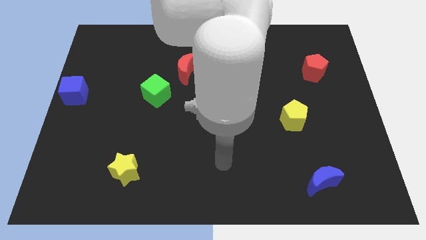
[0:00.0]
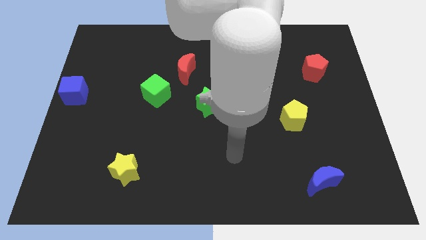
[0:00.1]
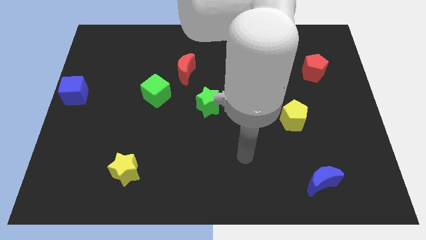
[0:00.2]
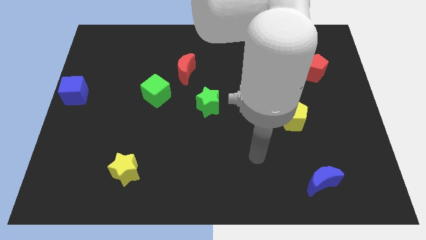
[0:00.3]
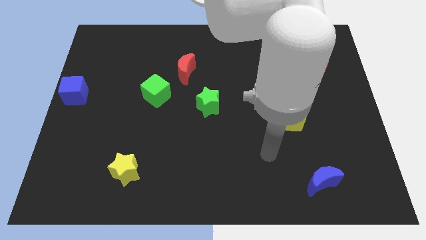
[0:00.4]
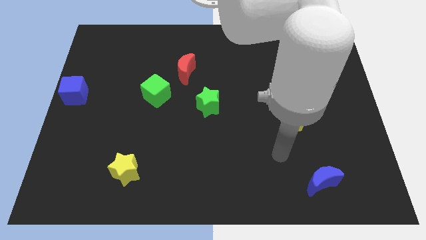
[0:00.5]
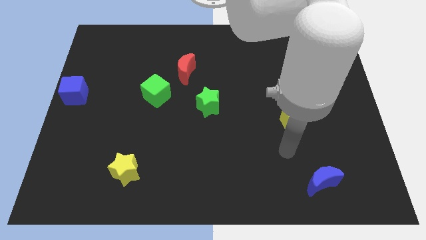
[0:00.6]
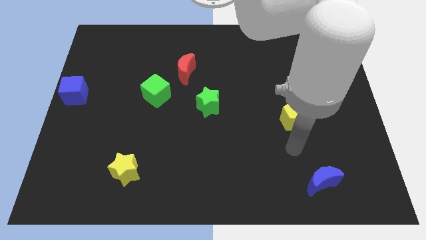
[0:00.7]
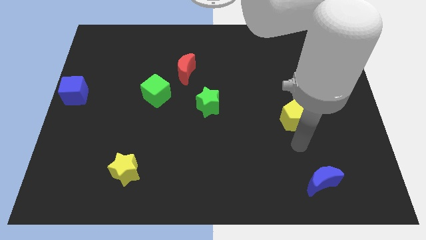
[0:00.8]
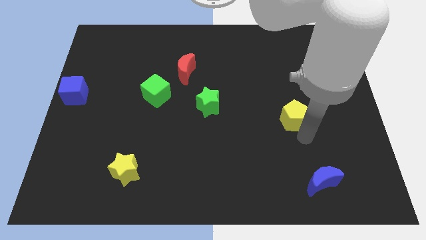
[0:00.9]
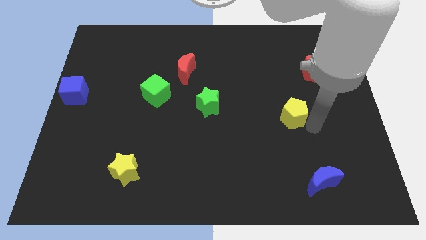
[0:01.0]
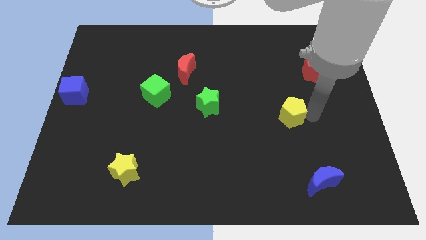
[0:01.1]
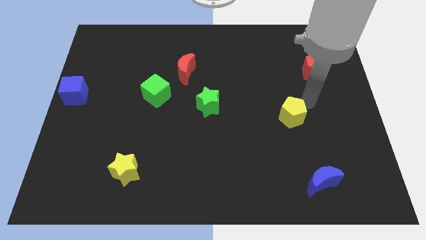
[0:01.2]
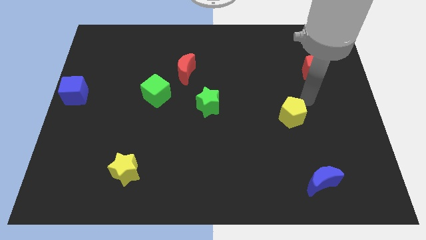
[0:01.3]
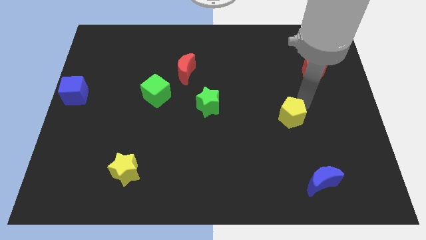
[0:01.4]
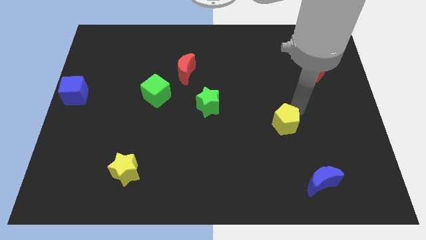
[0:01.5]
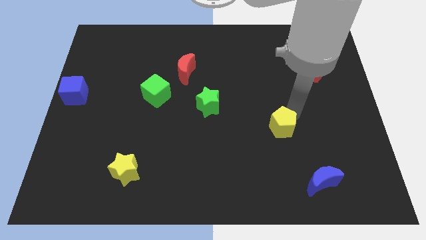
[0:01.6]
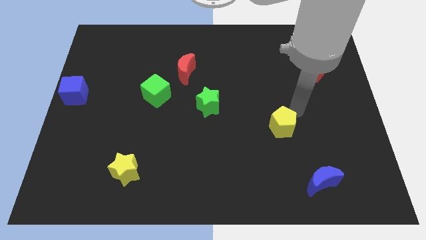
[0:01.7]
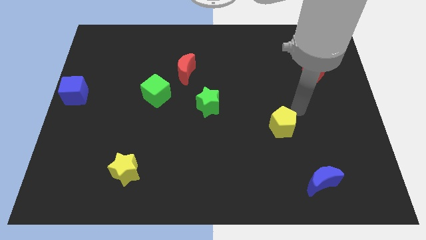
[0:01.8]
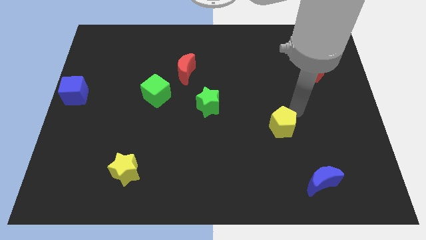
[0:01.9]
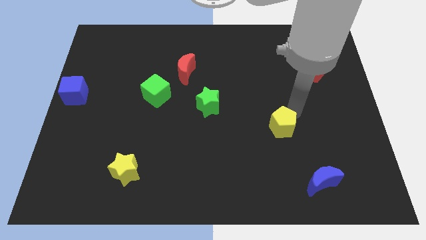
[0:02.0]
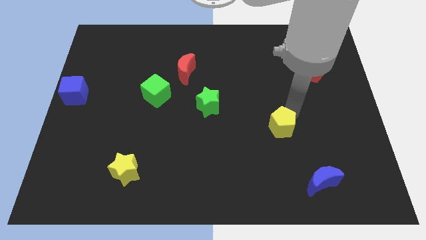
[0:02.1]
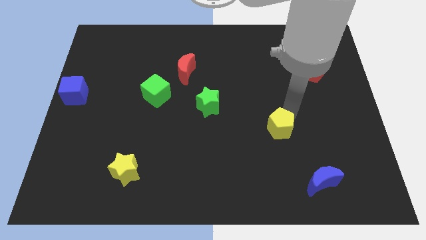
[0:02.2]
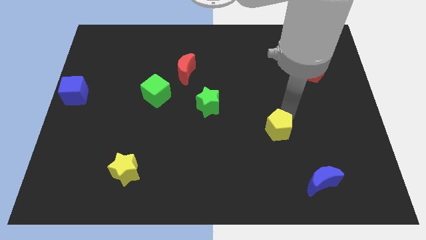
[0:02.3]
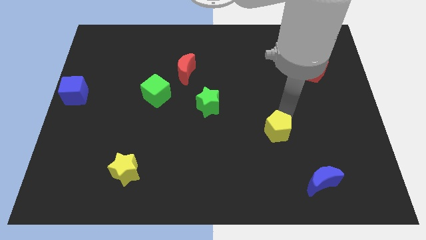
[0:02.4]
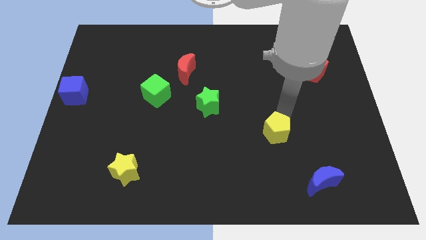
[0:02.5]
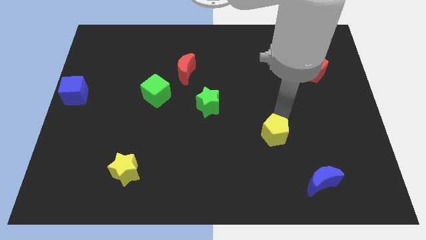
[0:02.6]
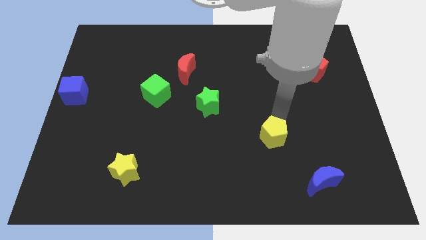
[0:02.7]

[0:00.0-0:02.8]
slightly push the yellow pentagon down and left diagonally

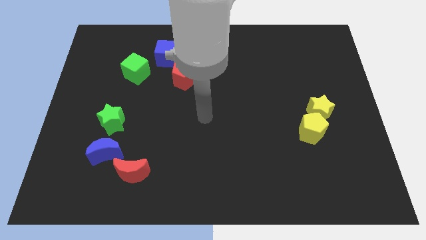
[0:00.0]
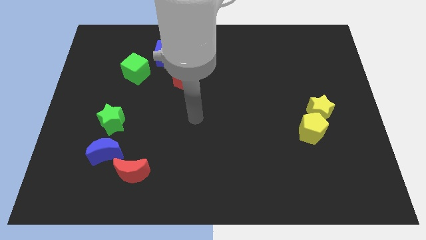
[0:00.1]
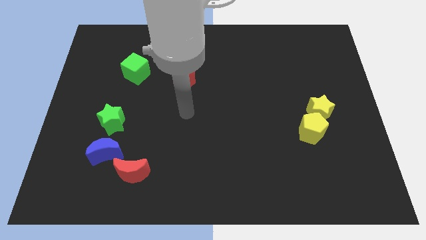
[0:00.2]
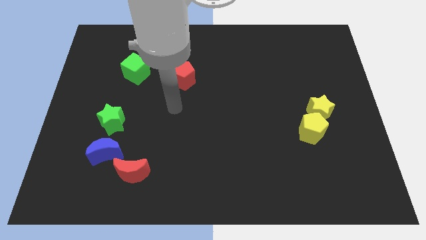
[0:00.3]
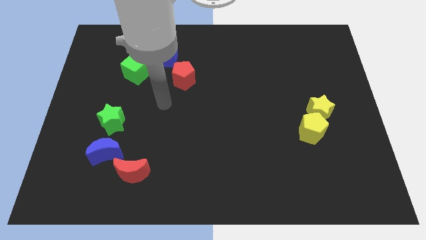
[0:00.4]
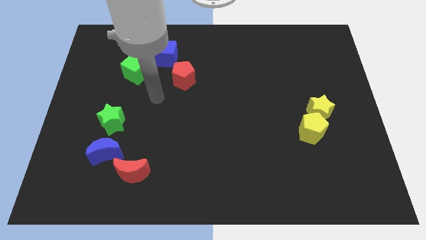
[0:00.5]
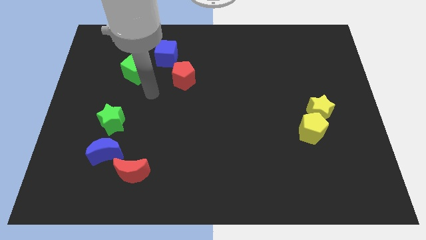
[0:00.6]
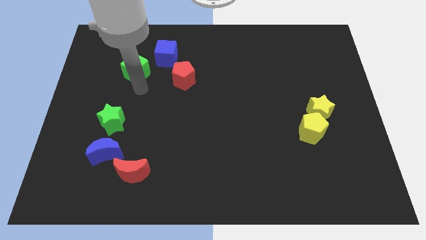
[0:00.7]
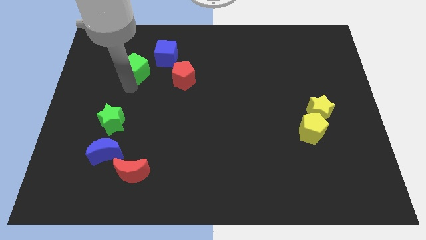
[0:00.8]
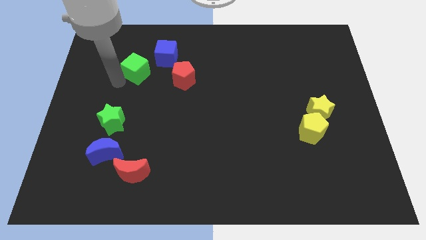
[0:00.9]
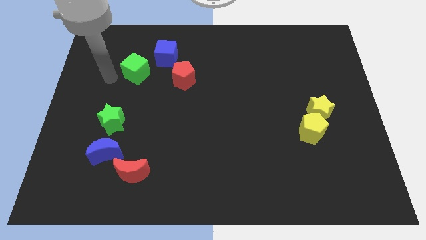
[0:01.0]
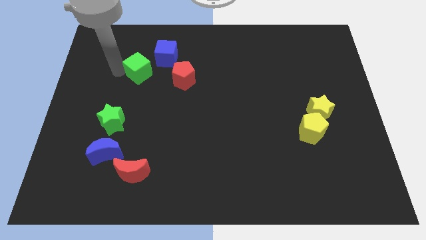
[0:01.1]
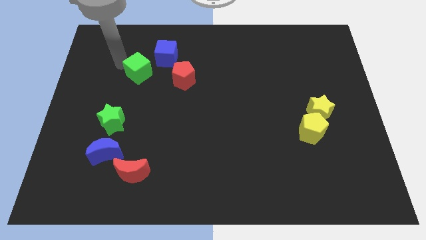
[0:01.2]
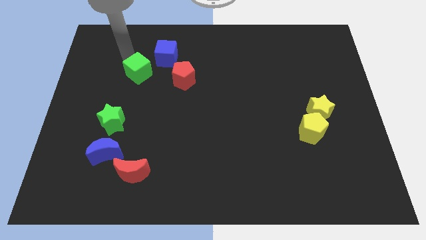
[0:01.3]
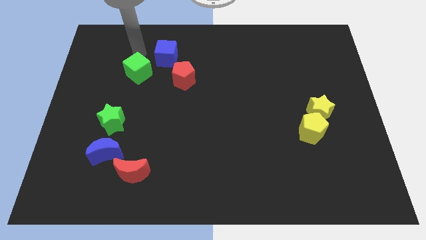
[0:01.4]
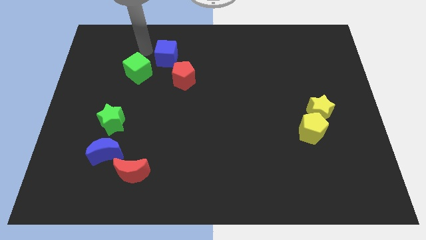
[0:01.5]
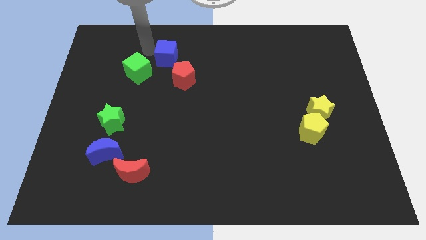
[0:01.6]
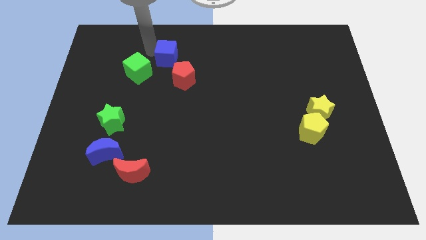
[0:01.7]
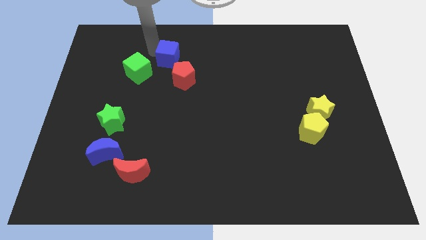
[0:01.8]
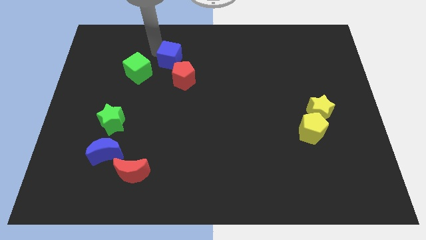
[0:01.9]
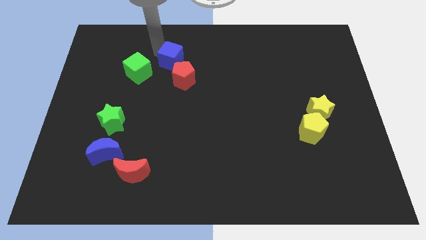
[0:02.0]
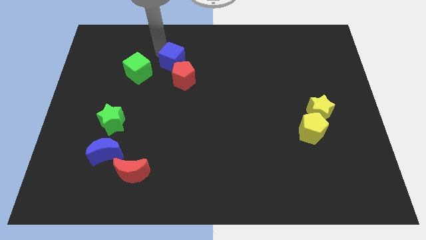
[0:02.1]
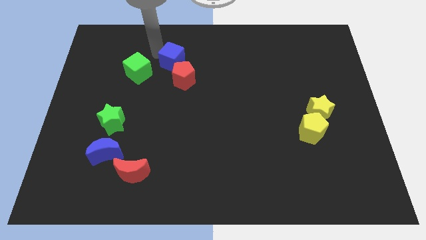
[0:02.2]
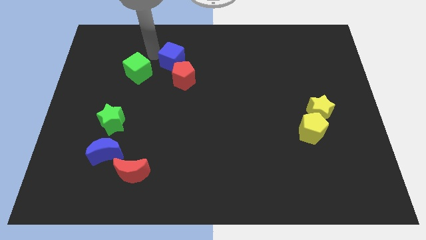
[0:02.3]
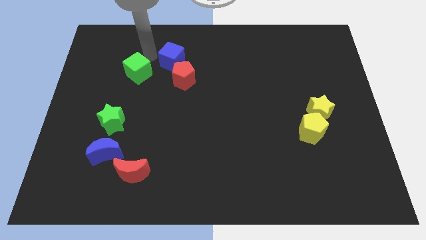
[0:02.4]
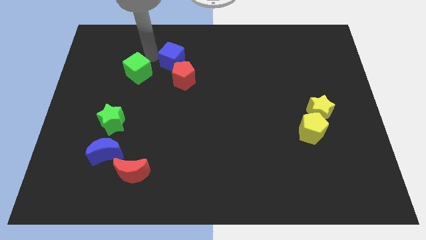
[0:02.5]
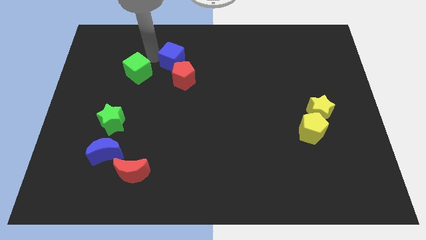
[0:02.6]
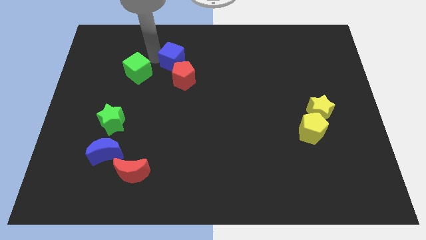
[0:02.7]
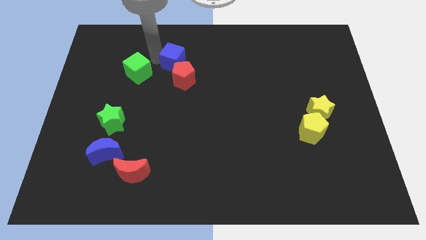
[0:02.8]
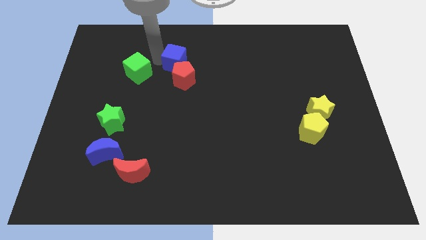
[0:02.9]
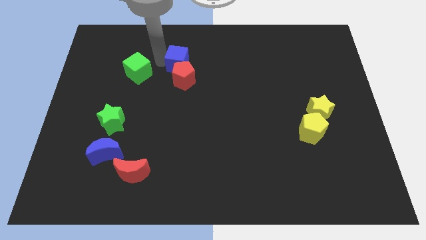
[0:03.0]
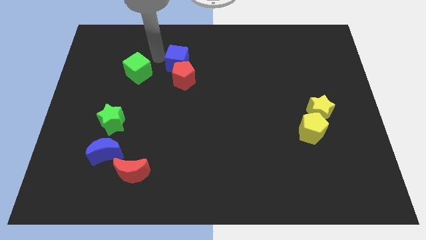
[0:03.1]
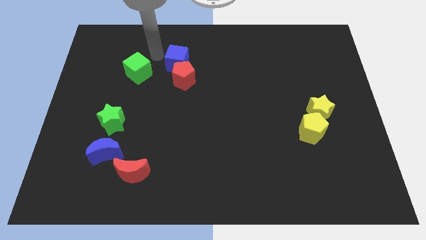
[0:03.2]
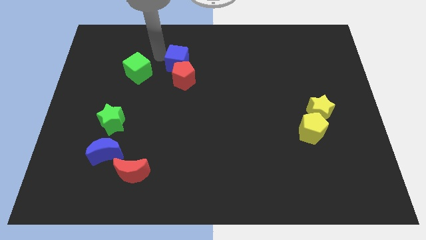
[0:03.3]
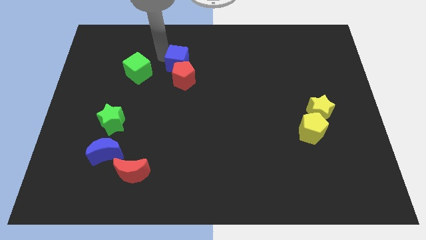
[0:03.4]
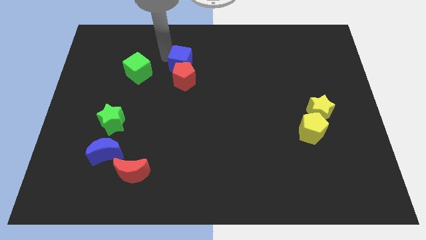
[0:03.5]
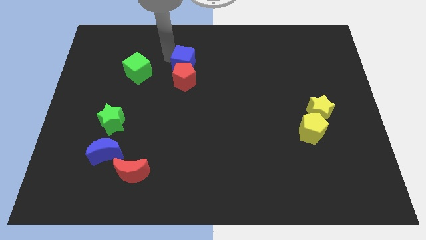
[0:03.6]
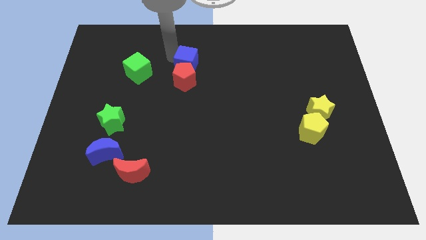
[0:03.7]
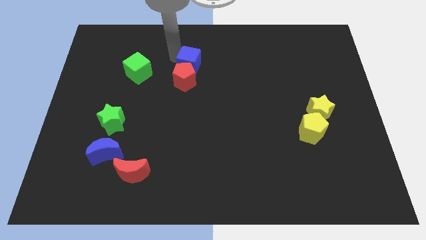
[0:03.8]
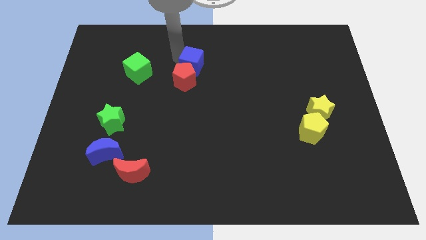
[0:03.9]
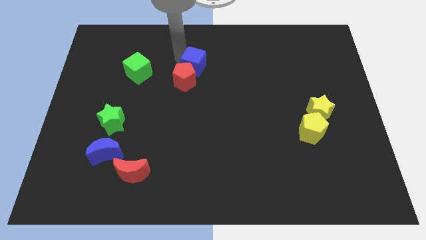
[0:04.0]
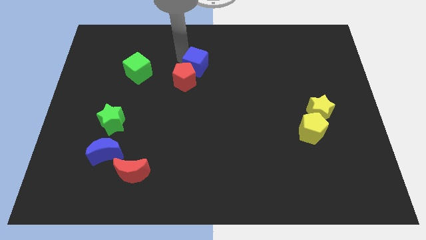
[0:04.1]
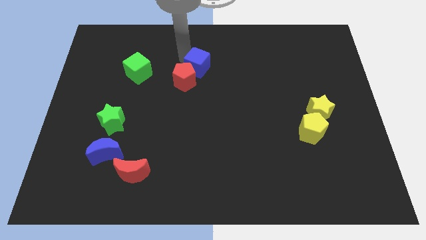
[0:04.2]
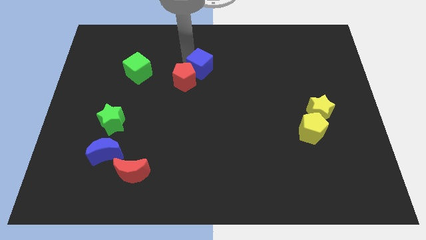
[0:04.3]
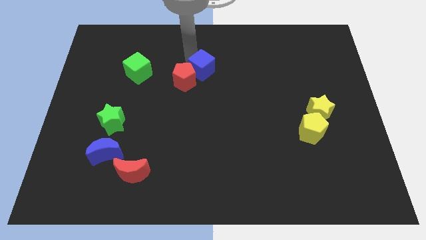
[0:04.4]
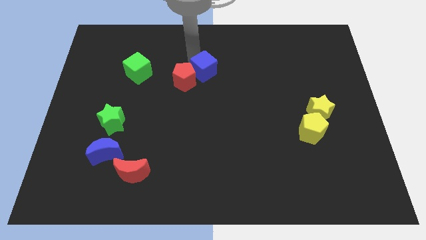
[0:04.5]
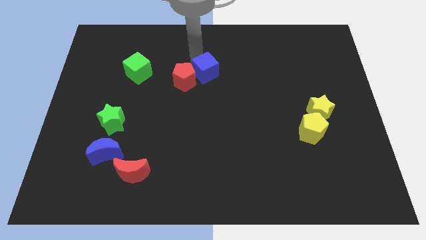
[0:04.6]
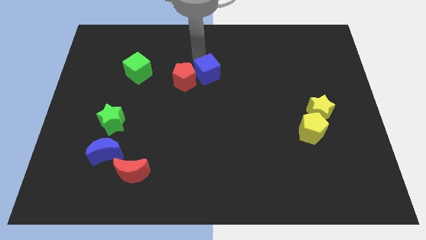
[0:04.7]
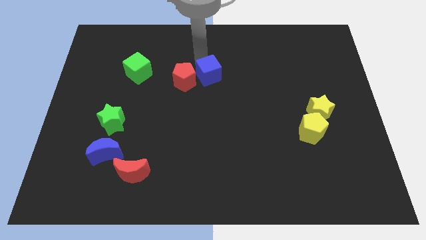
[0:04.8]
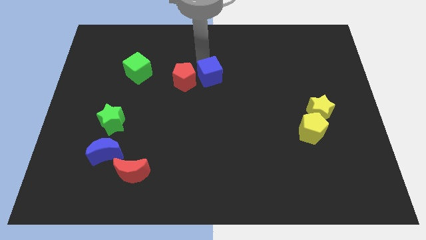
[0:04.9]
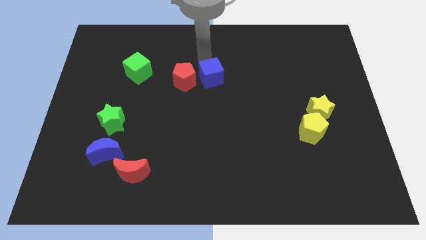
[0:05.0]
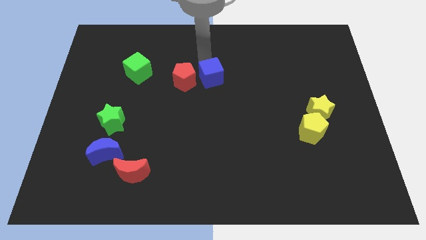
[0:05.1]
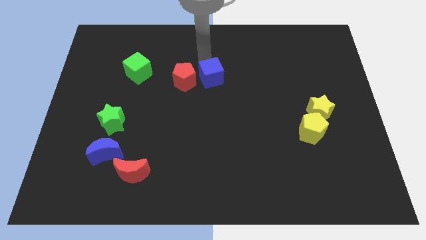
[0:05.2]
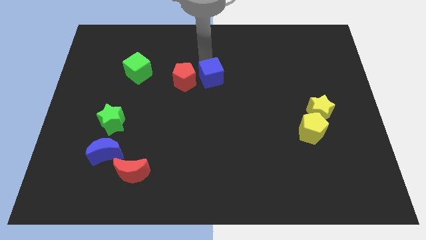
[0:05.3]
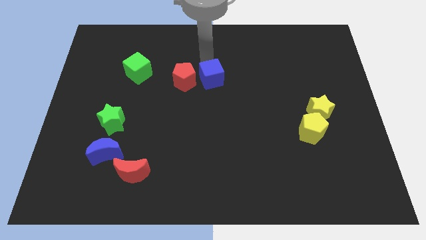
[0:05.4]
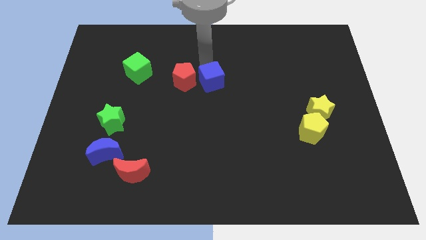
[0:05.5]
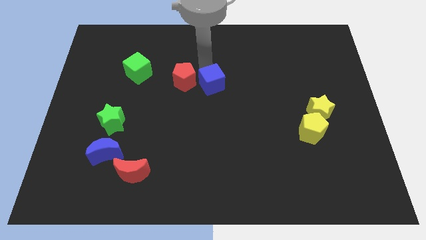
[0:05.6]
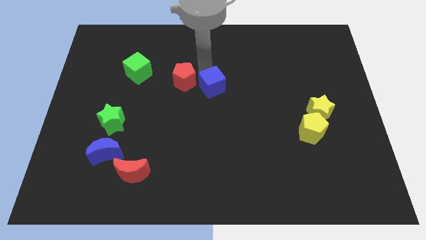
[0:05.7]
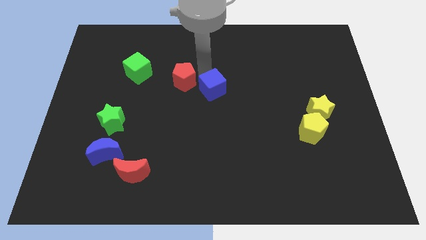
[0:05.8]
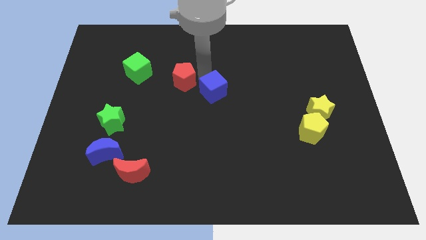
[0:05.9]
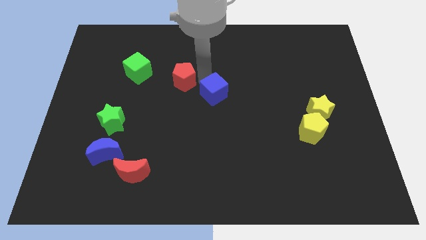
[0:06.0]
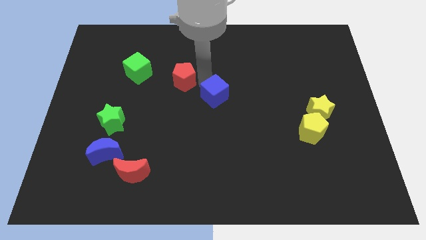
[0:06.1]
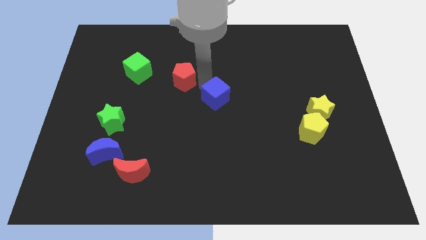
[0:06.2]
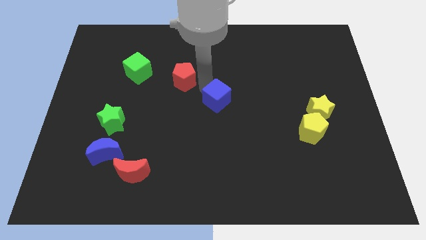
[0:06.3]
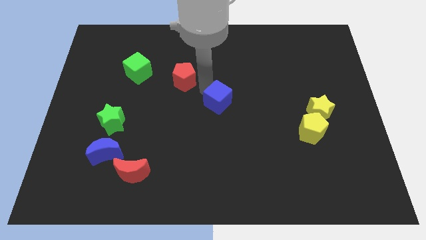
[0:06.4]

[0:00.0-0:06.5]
move the blue cube down and then right
